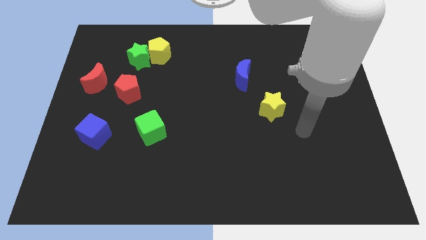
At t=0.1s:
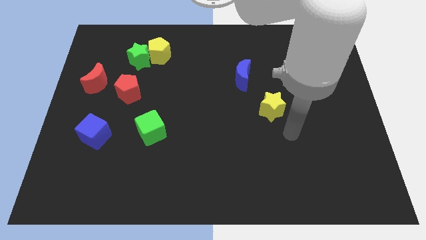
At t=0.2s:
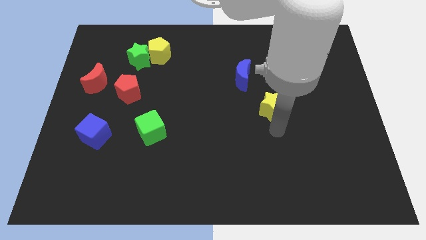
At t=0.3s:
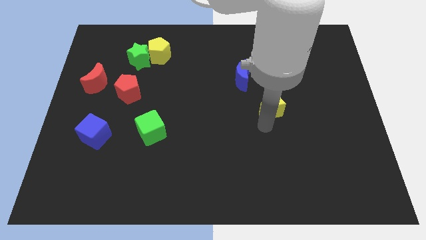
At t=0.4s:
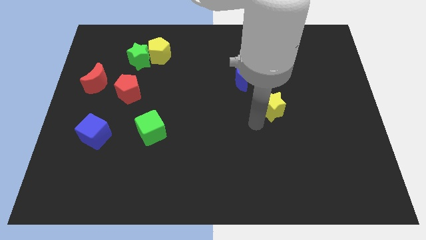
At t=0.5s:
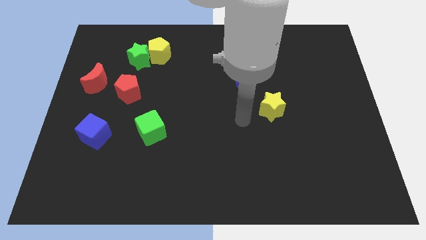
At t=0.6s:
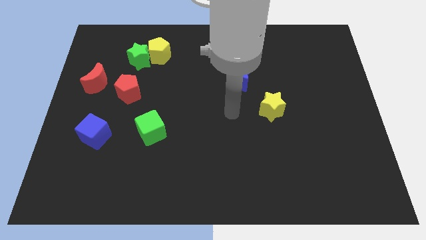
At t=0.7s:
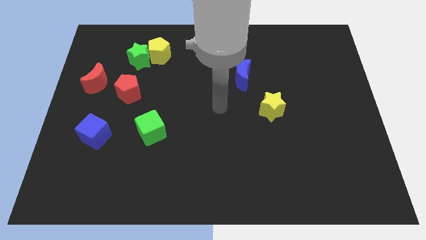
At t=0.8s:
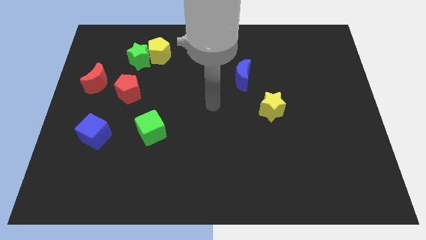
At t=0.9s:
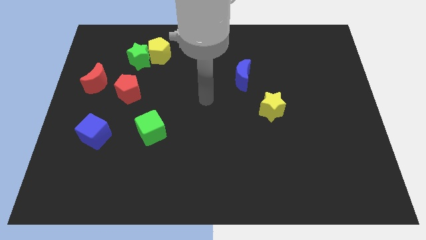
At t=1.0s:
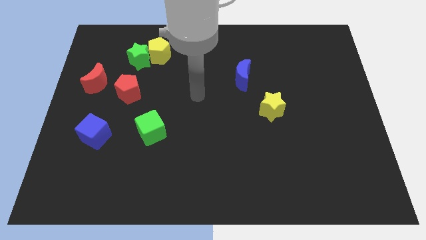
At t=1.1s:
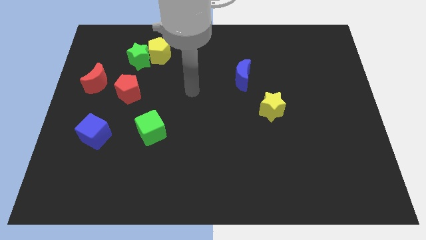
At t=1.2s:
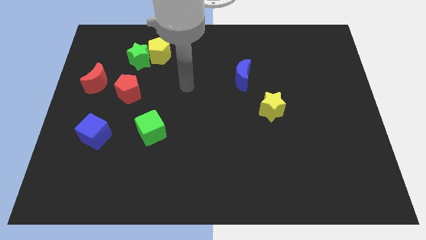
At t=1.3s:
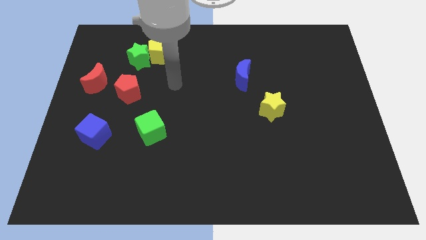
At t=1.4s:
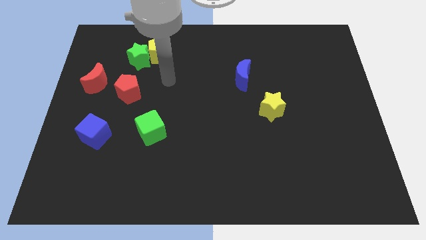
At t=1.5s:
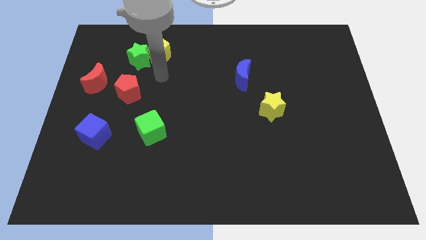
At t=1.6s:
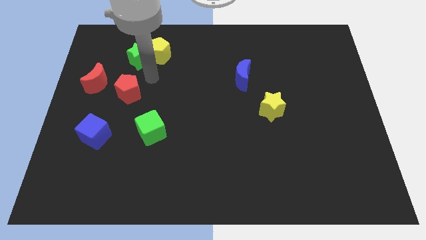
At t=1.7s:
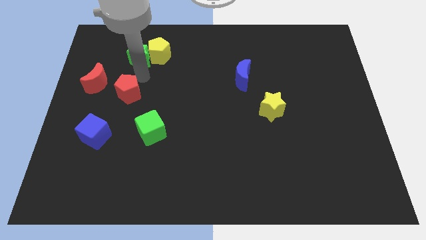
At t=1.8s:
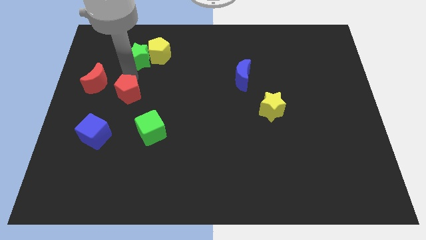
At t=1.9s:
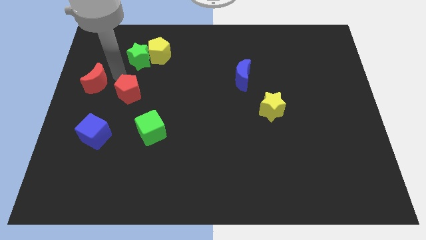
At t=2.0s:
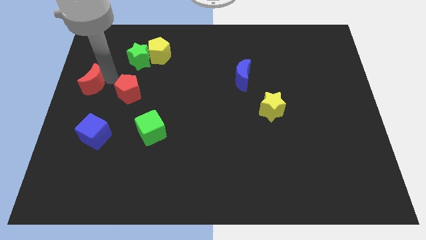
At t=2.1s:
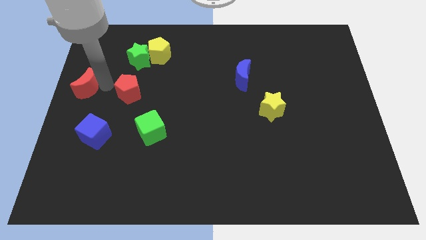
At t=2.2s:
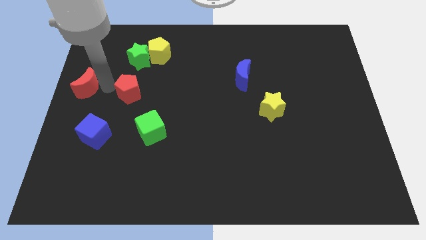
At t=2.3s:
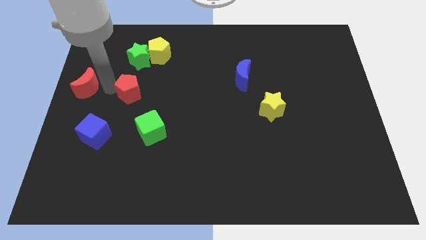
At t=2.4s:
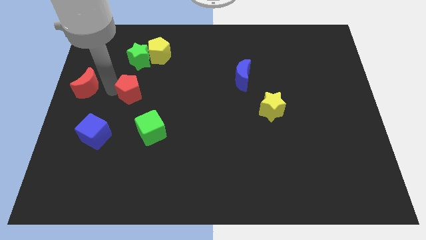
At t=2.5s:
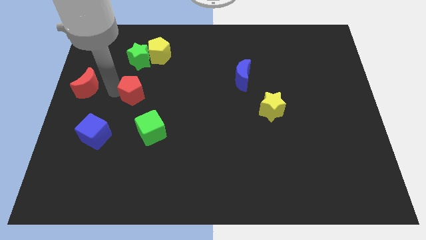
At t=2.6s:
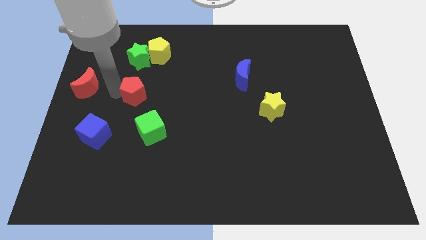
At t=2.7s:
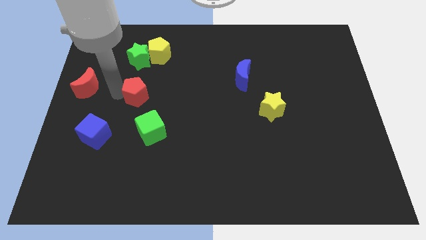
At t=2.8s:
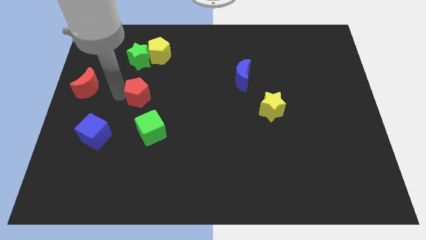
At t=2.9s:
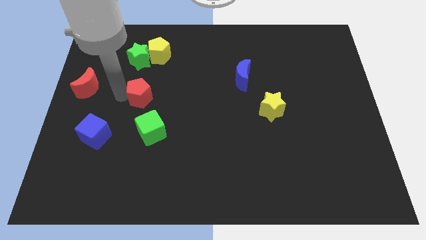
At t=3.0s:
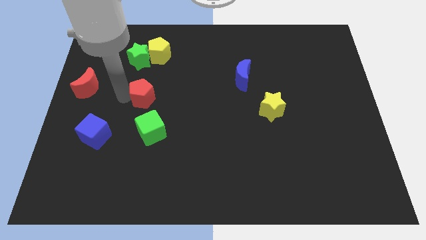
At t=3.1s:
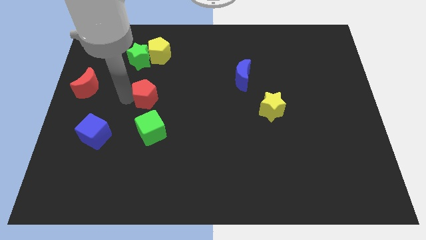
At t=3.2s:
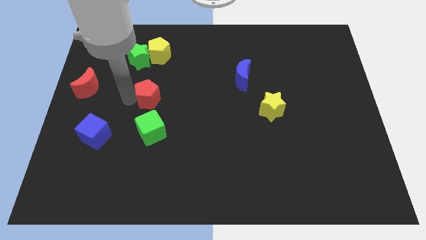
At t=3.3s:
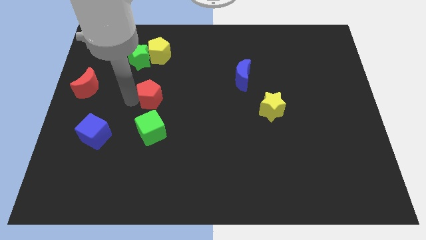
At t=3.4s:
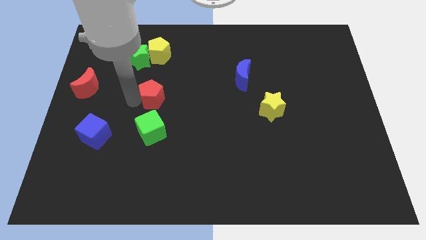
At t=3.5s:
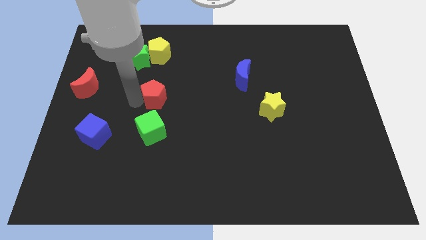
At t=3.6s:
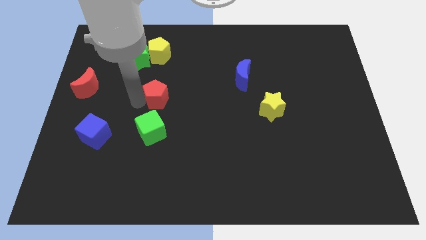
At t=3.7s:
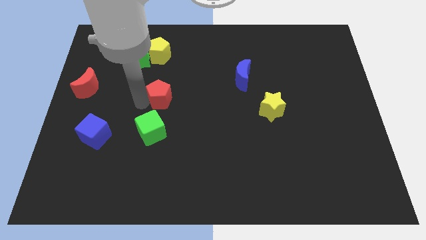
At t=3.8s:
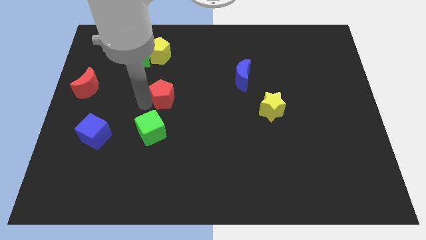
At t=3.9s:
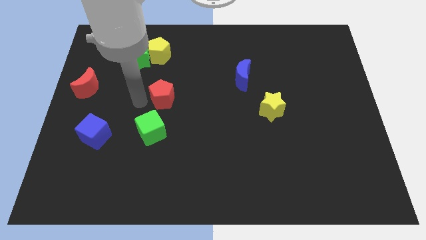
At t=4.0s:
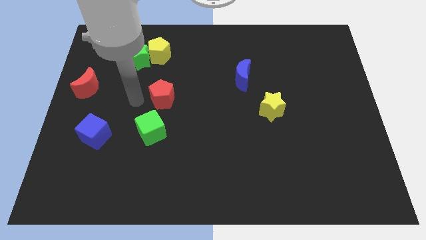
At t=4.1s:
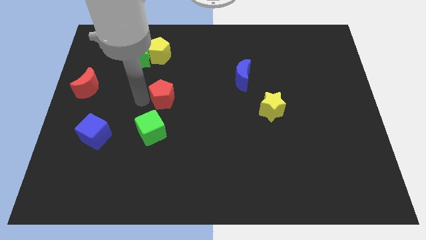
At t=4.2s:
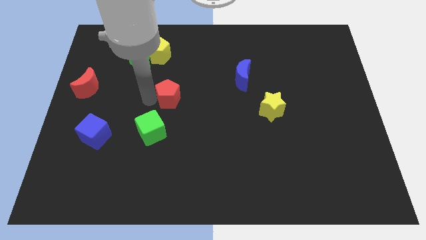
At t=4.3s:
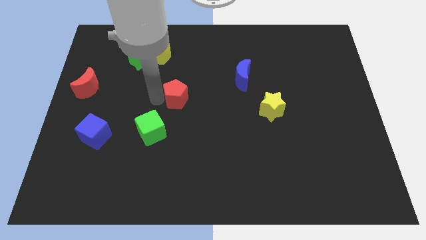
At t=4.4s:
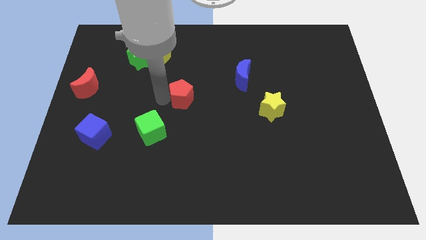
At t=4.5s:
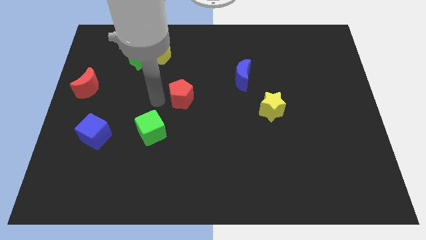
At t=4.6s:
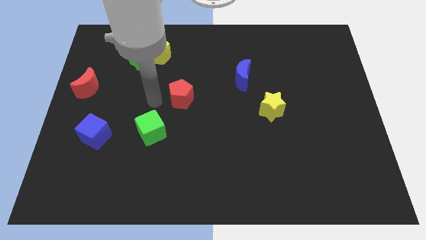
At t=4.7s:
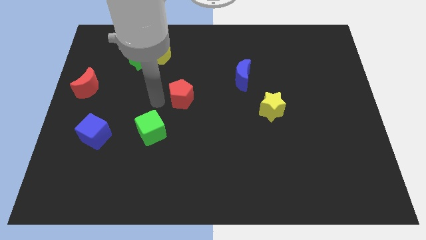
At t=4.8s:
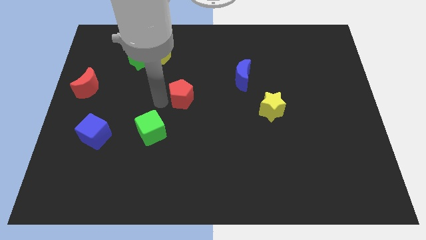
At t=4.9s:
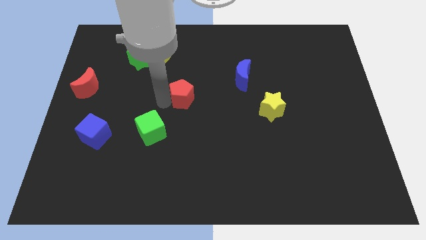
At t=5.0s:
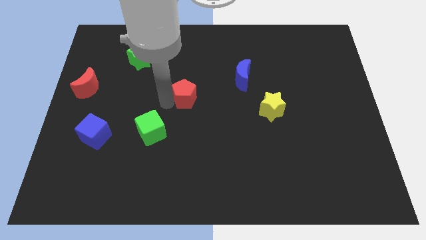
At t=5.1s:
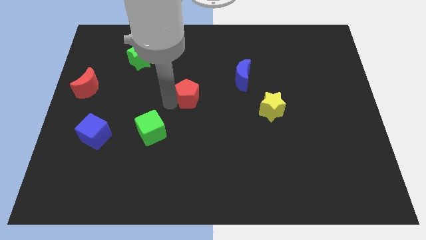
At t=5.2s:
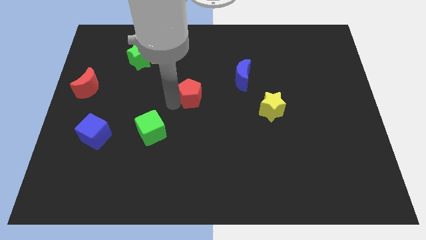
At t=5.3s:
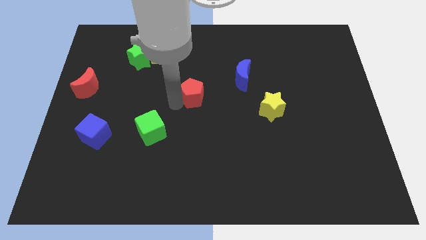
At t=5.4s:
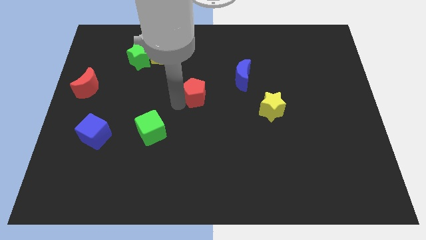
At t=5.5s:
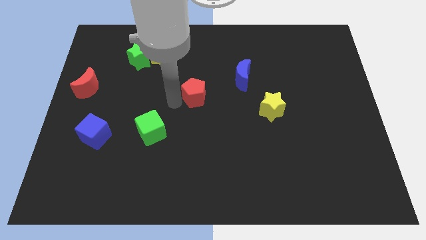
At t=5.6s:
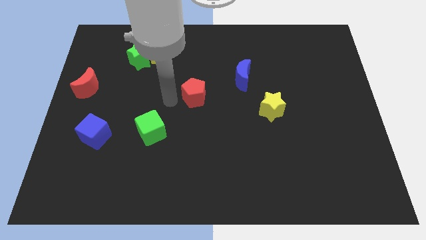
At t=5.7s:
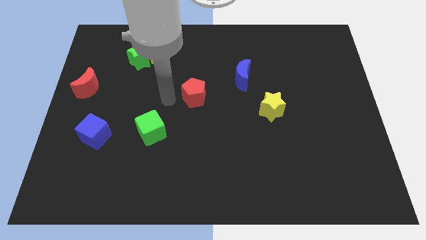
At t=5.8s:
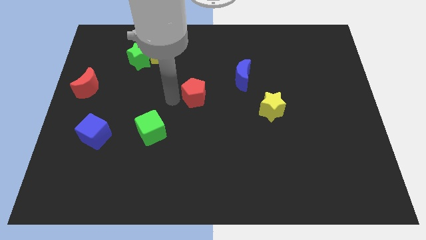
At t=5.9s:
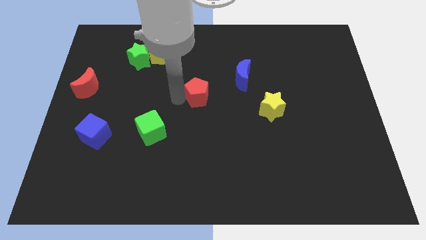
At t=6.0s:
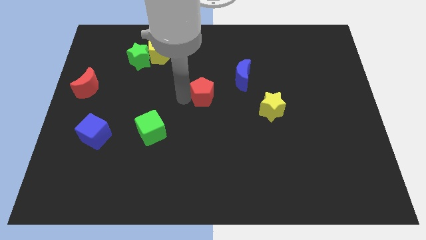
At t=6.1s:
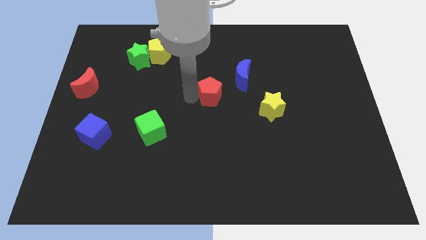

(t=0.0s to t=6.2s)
push the red pentagon to the right

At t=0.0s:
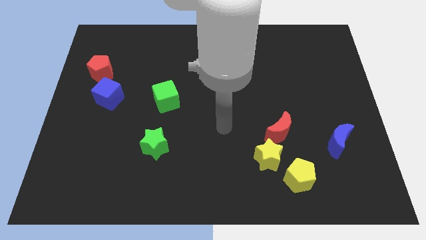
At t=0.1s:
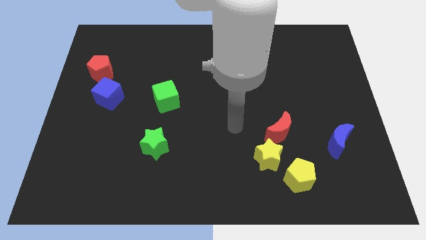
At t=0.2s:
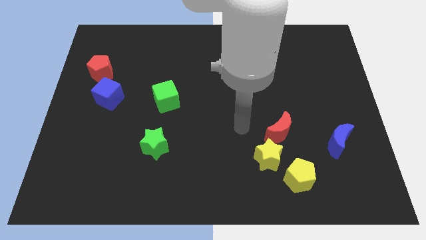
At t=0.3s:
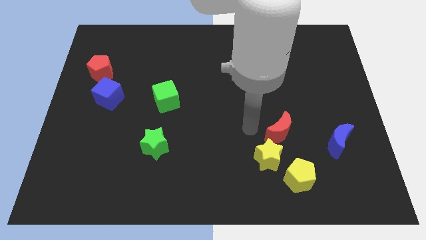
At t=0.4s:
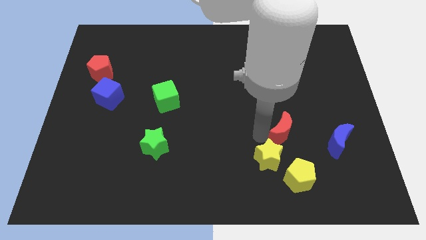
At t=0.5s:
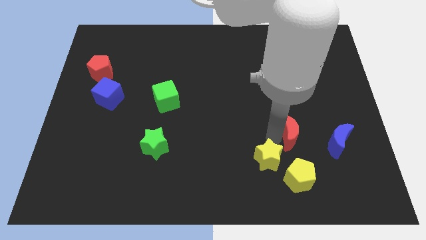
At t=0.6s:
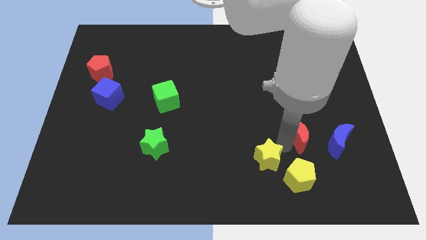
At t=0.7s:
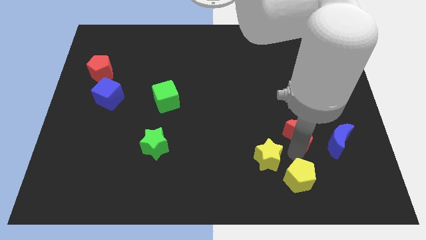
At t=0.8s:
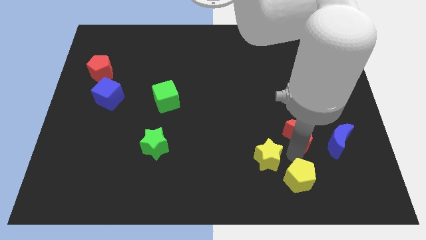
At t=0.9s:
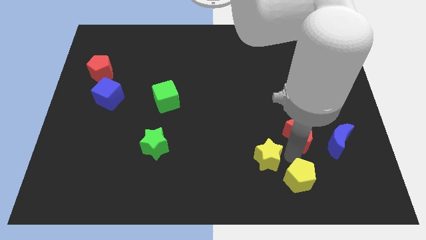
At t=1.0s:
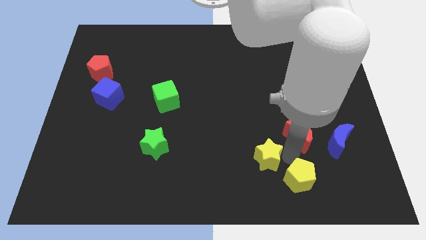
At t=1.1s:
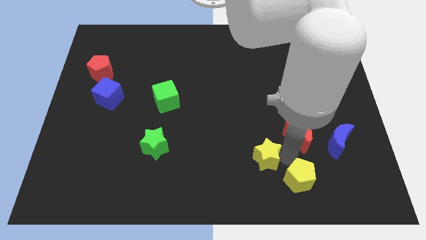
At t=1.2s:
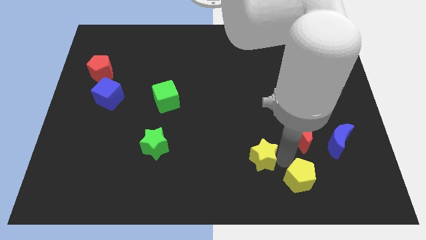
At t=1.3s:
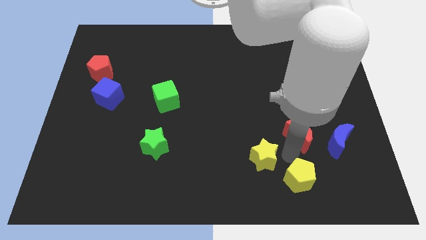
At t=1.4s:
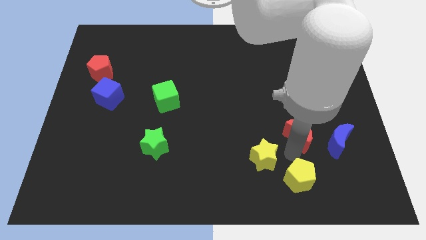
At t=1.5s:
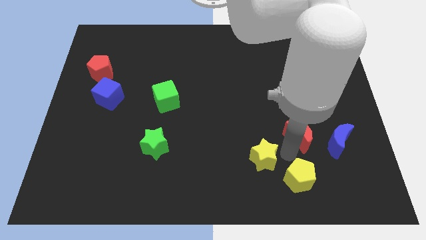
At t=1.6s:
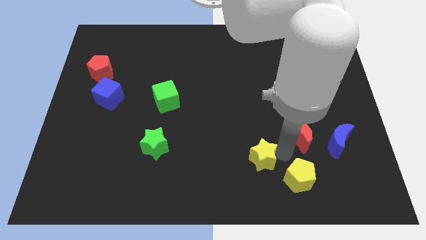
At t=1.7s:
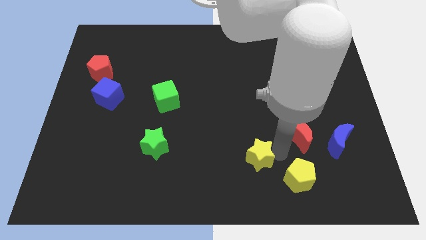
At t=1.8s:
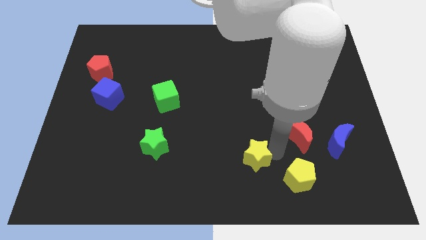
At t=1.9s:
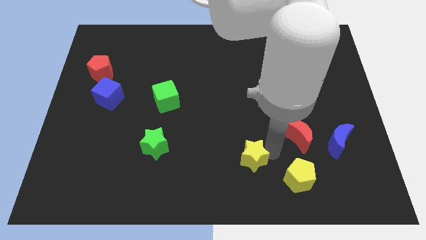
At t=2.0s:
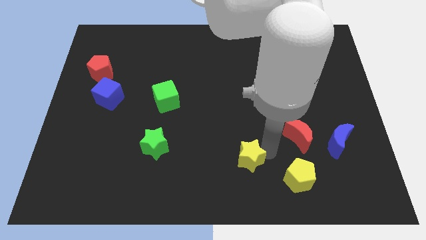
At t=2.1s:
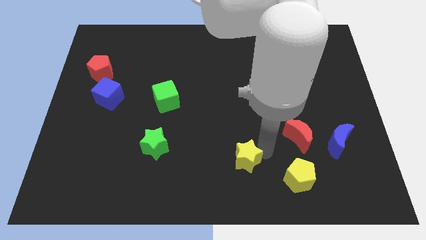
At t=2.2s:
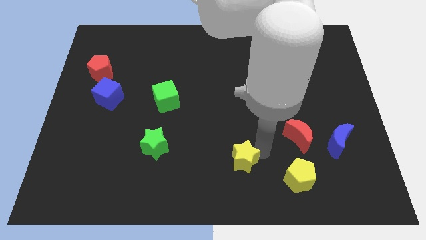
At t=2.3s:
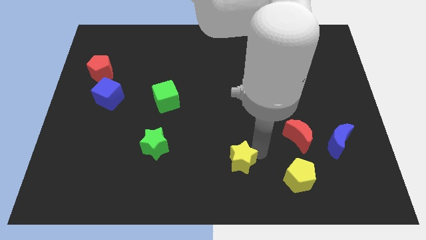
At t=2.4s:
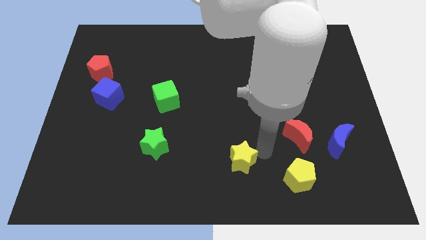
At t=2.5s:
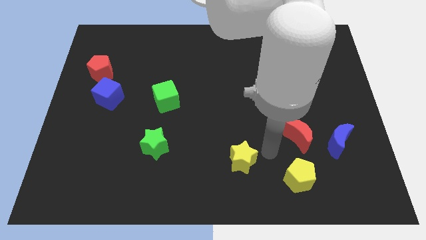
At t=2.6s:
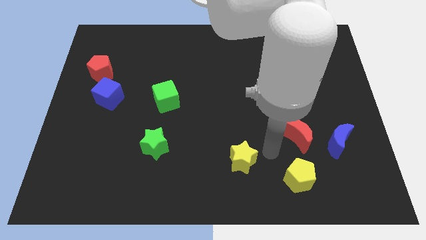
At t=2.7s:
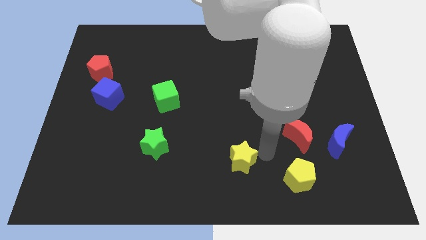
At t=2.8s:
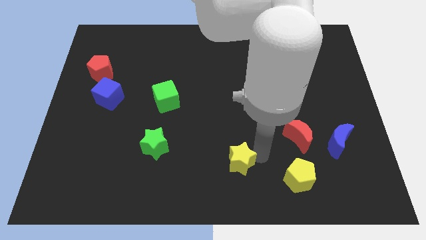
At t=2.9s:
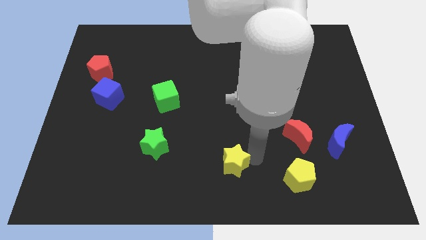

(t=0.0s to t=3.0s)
slide the yellow star to the left somewhat
